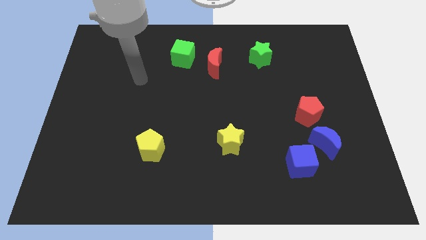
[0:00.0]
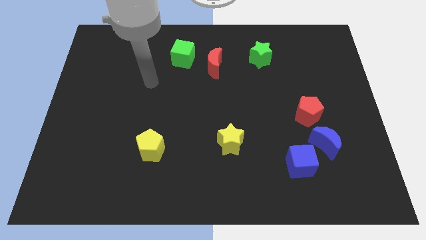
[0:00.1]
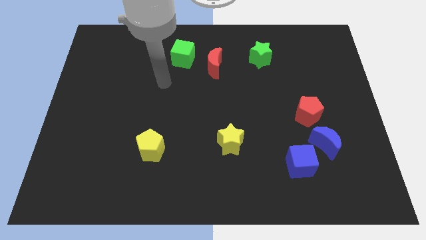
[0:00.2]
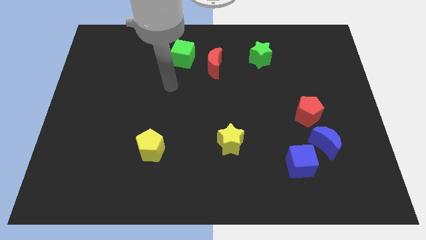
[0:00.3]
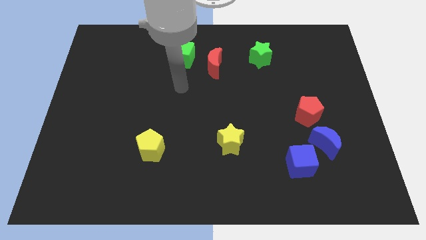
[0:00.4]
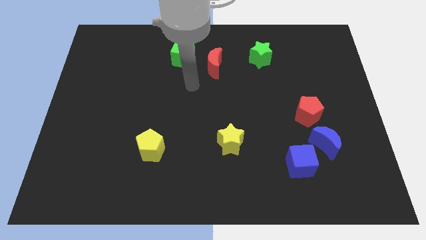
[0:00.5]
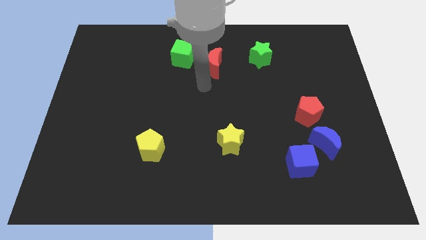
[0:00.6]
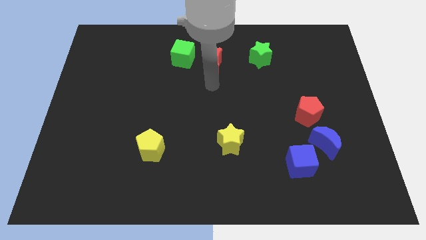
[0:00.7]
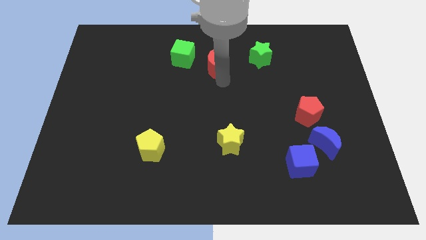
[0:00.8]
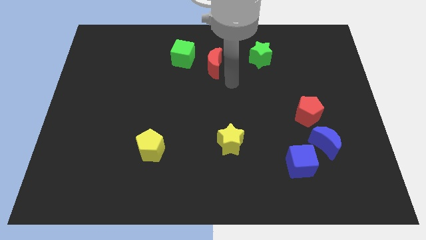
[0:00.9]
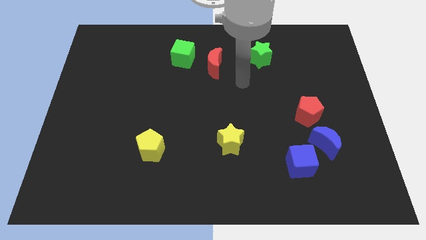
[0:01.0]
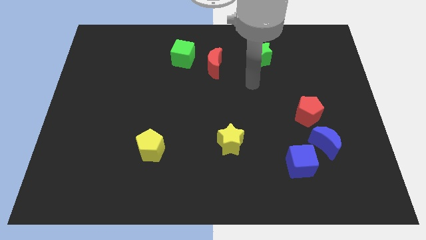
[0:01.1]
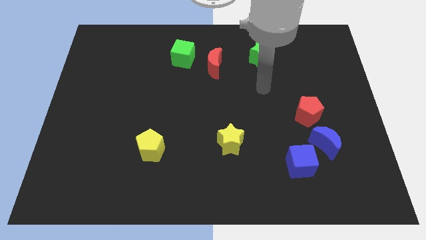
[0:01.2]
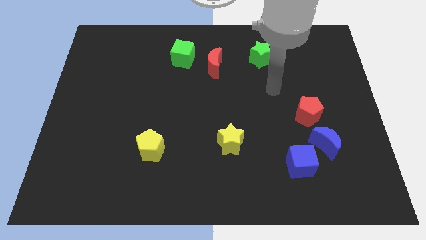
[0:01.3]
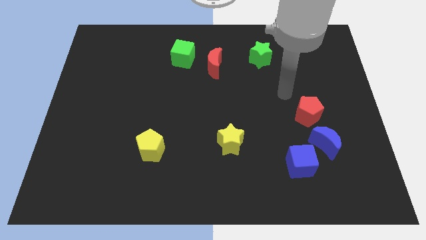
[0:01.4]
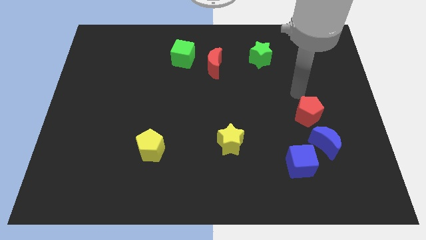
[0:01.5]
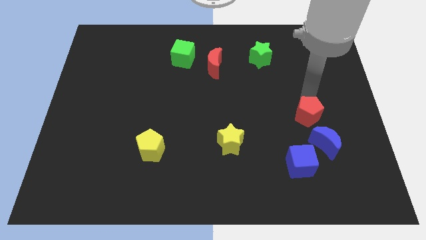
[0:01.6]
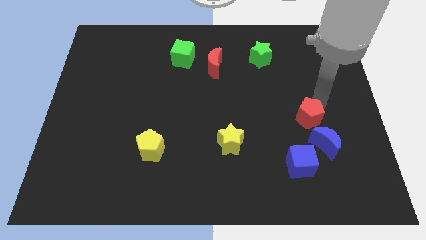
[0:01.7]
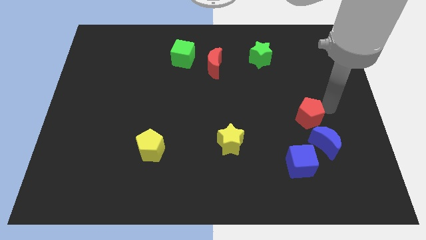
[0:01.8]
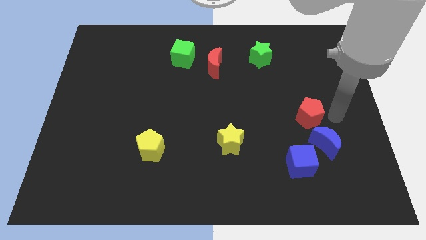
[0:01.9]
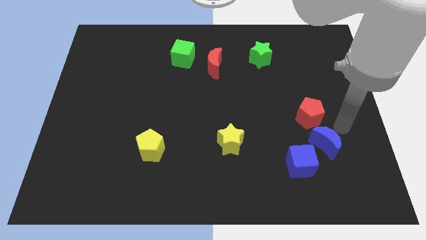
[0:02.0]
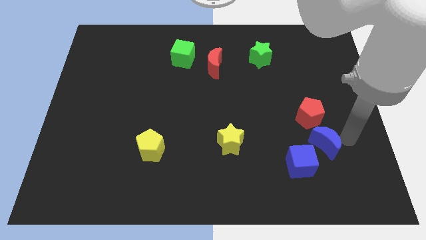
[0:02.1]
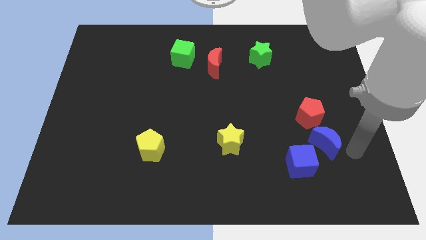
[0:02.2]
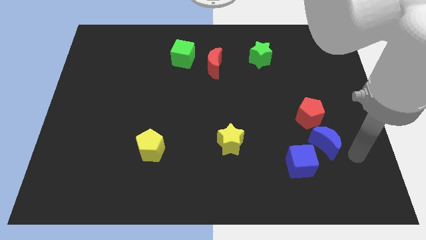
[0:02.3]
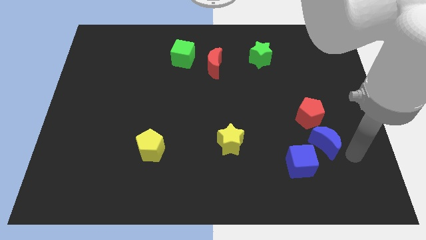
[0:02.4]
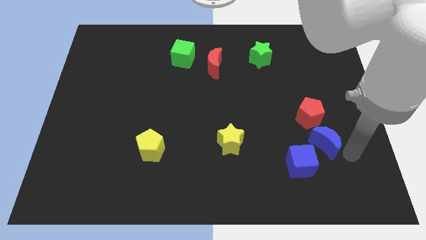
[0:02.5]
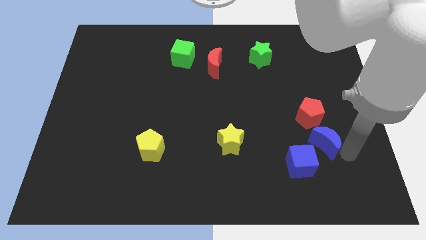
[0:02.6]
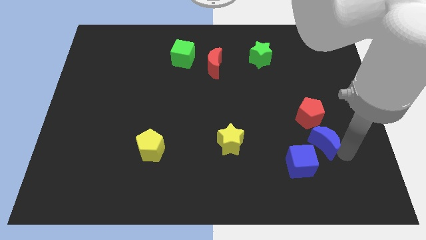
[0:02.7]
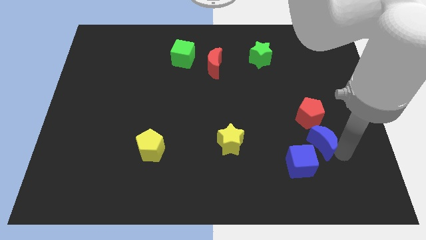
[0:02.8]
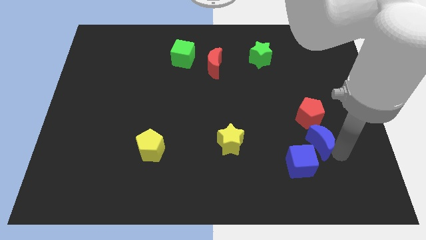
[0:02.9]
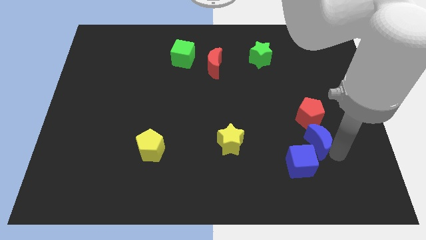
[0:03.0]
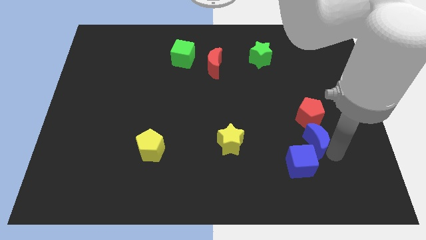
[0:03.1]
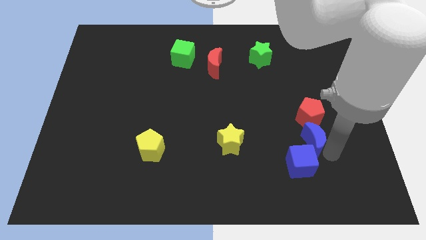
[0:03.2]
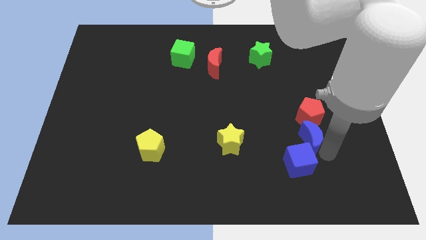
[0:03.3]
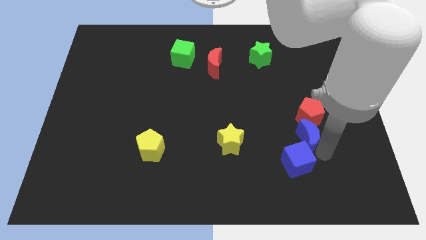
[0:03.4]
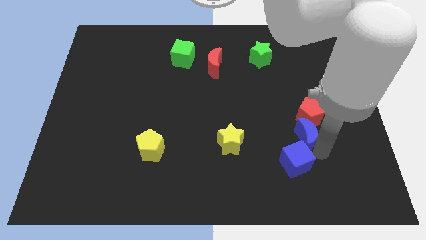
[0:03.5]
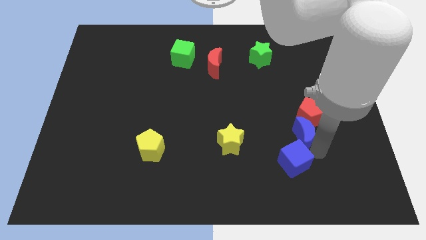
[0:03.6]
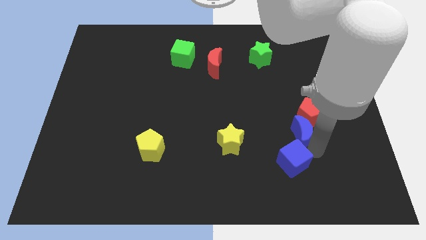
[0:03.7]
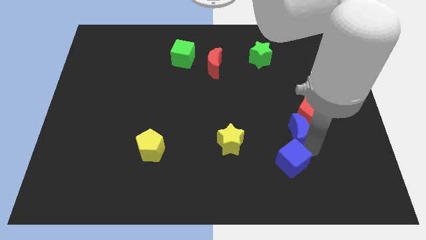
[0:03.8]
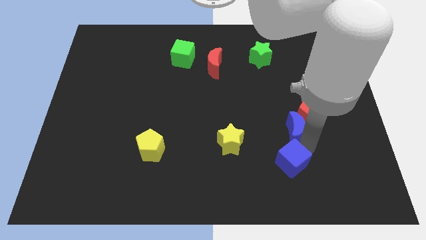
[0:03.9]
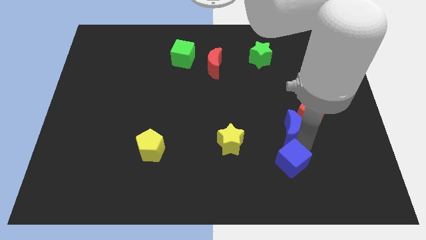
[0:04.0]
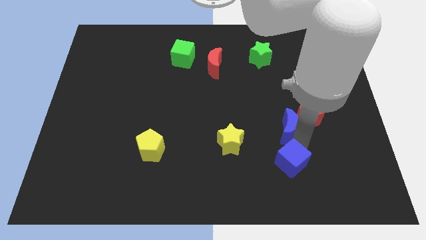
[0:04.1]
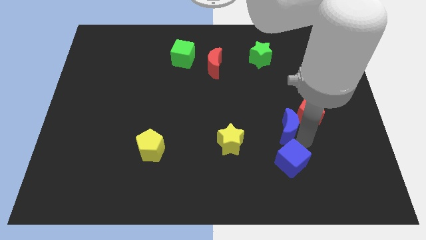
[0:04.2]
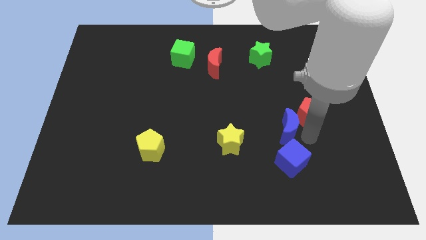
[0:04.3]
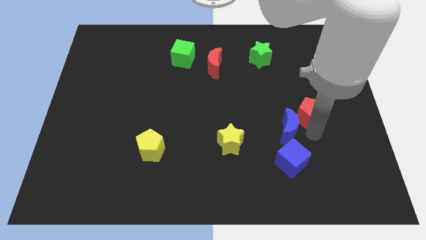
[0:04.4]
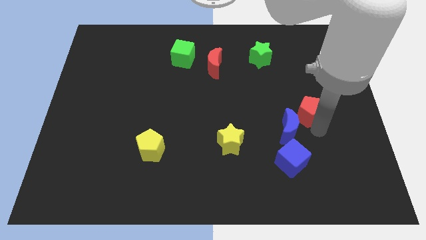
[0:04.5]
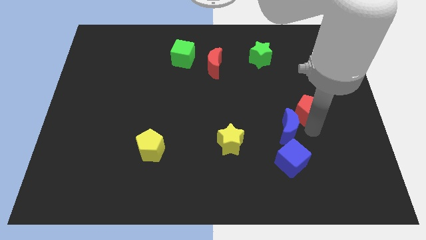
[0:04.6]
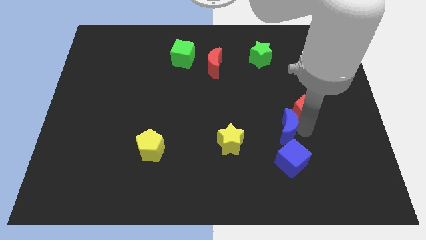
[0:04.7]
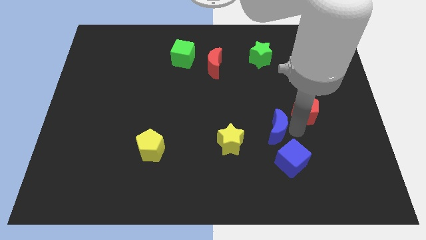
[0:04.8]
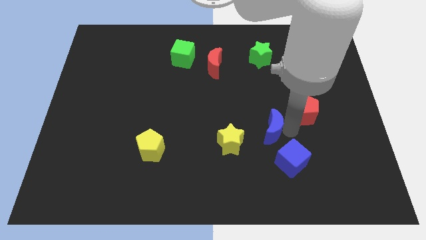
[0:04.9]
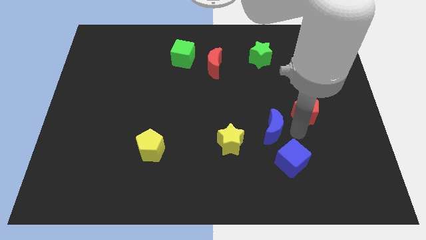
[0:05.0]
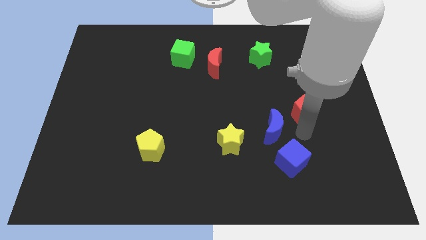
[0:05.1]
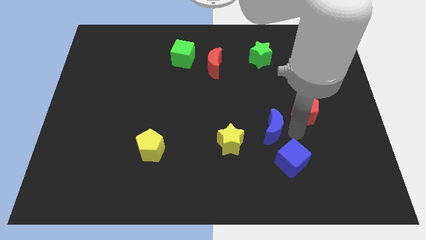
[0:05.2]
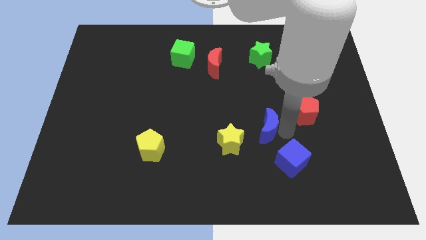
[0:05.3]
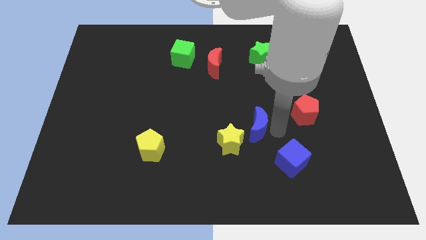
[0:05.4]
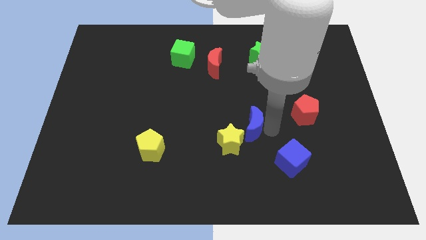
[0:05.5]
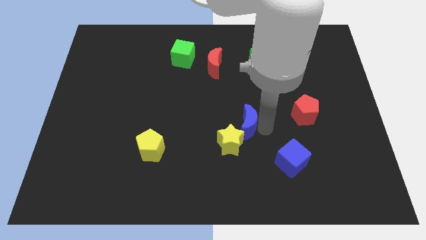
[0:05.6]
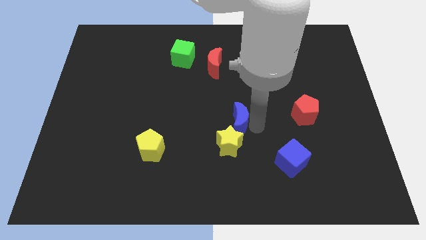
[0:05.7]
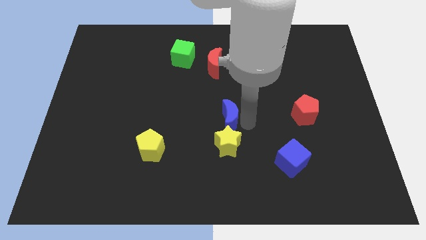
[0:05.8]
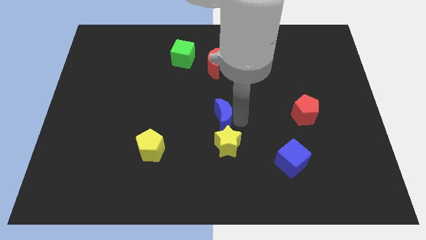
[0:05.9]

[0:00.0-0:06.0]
push the blue moon to the top left of the yellow star
